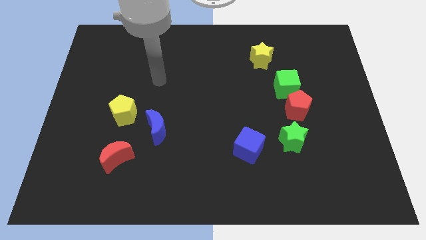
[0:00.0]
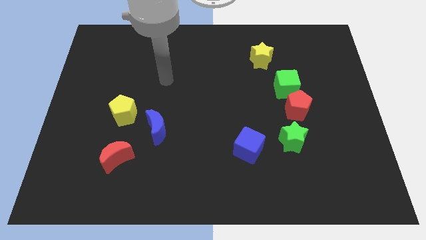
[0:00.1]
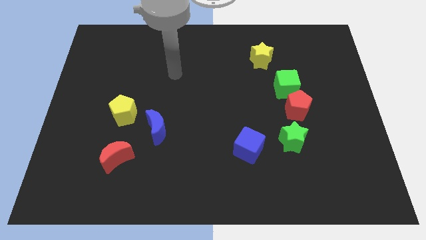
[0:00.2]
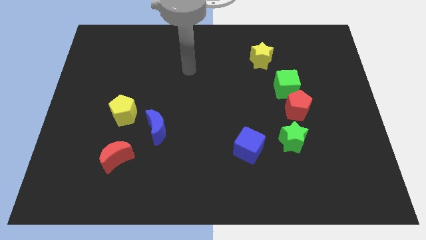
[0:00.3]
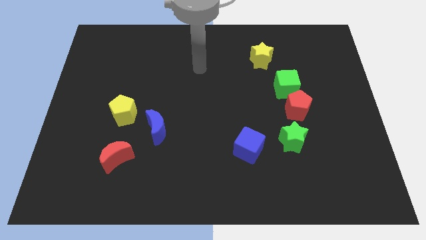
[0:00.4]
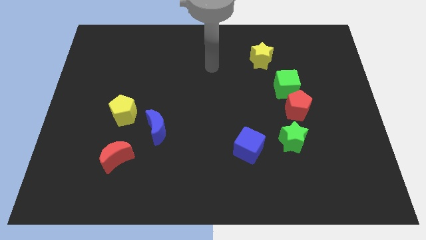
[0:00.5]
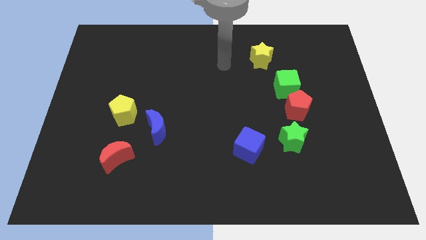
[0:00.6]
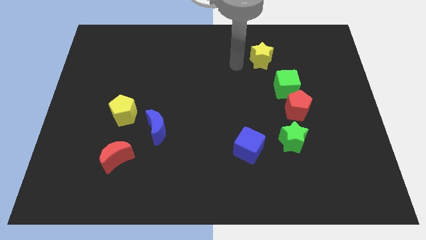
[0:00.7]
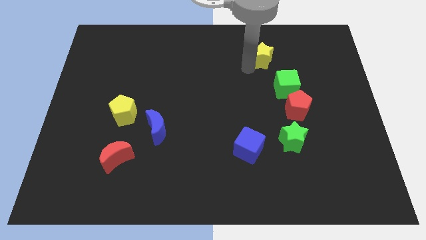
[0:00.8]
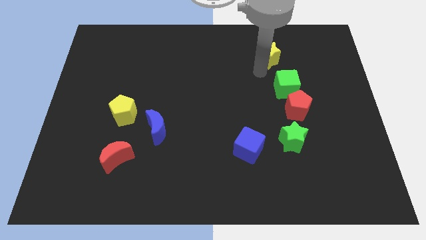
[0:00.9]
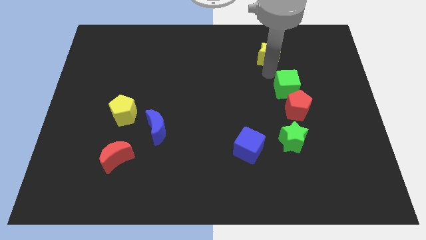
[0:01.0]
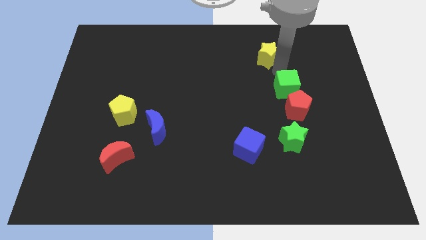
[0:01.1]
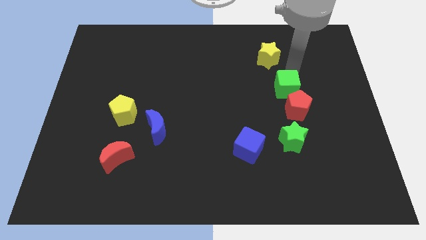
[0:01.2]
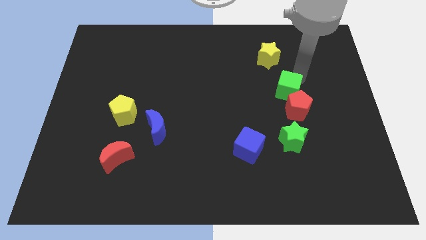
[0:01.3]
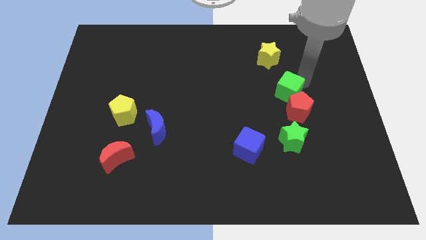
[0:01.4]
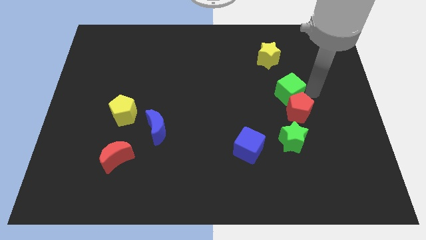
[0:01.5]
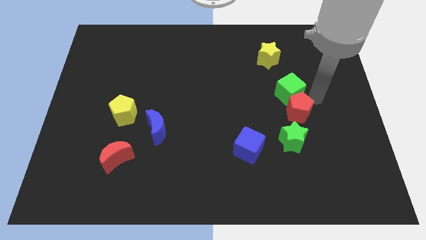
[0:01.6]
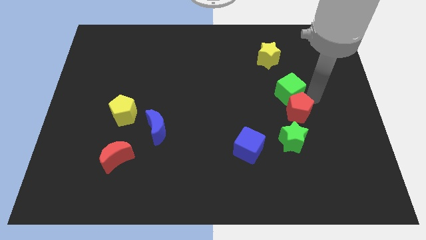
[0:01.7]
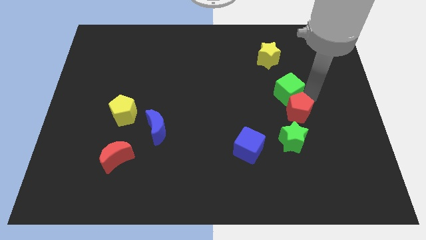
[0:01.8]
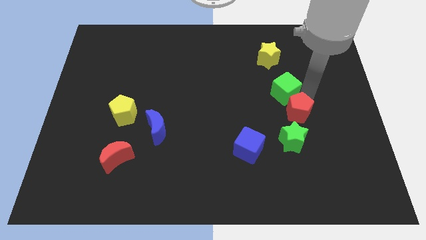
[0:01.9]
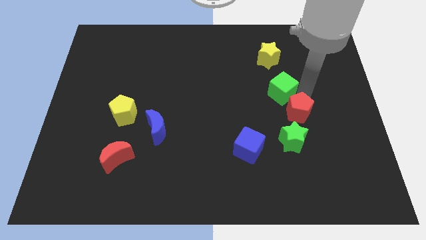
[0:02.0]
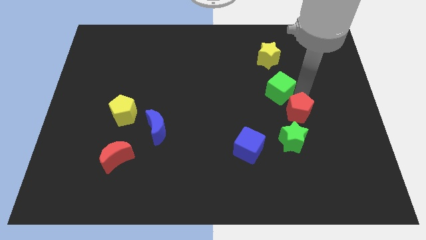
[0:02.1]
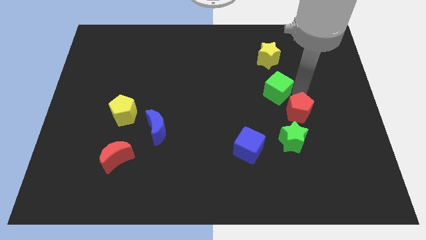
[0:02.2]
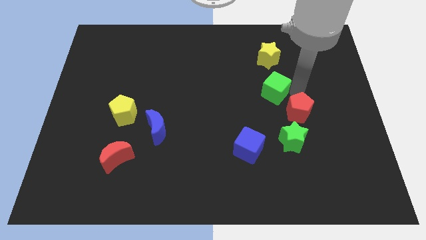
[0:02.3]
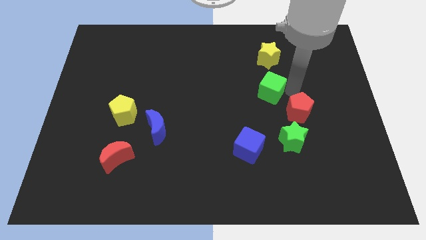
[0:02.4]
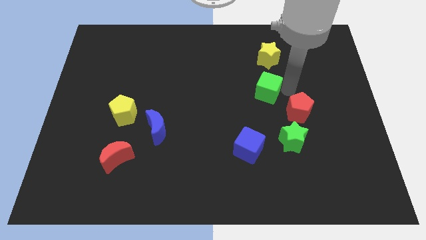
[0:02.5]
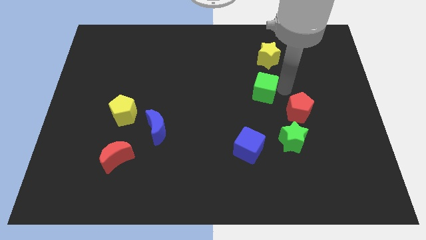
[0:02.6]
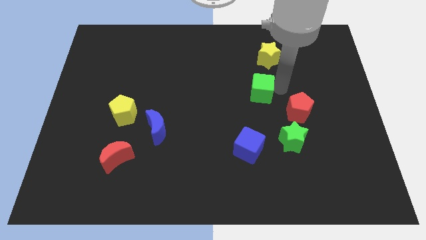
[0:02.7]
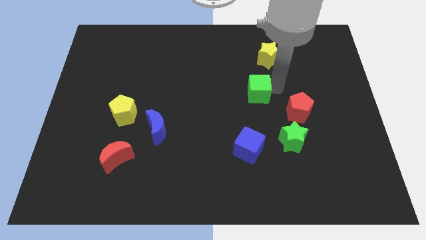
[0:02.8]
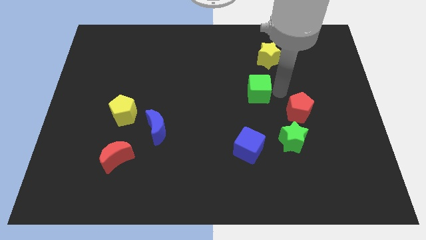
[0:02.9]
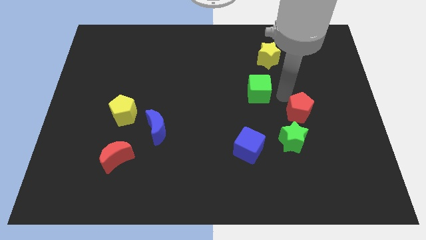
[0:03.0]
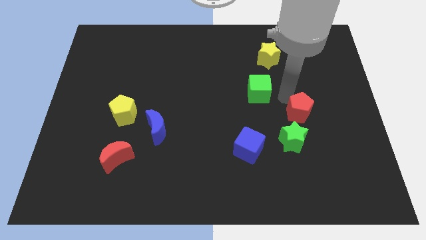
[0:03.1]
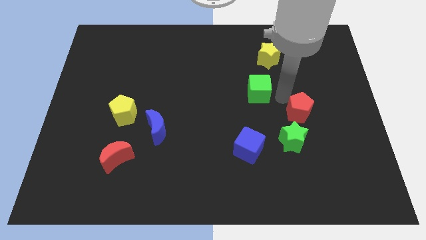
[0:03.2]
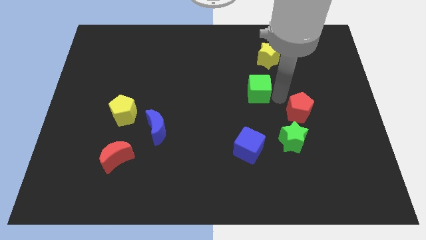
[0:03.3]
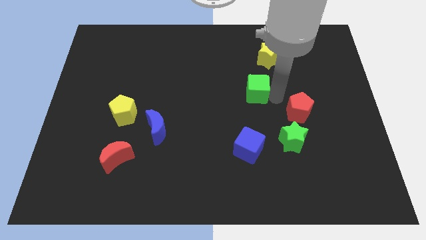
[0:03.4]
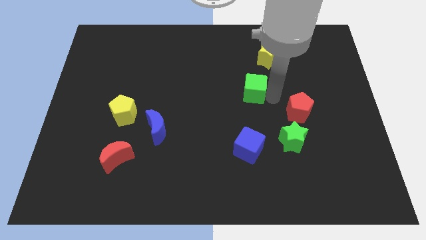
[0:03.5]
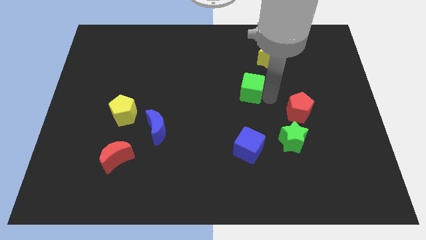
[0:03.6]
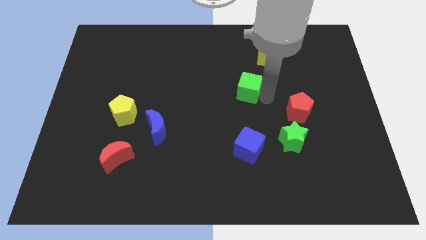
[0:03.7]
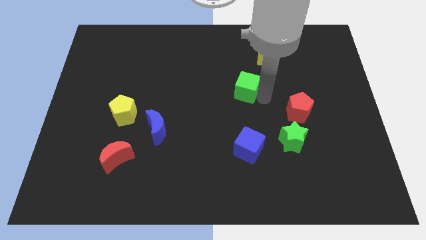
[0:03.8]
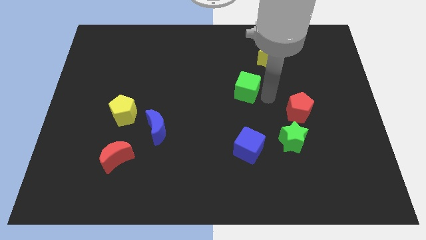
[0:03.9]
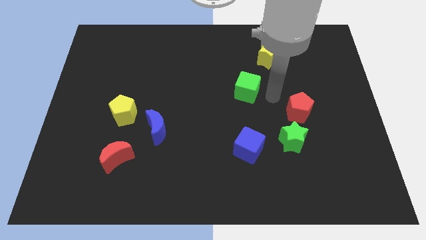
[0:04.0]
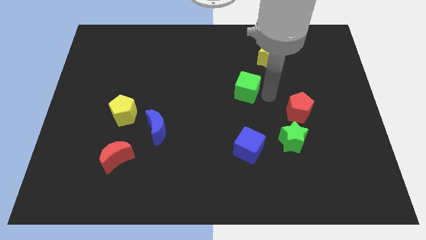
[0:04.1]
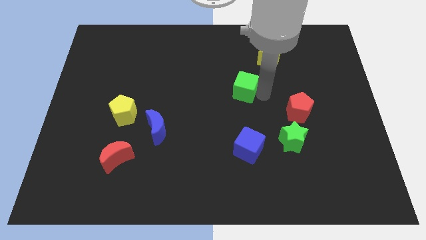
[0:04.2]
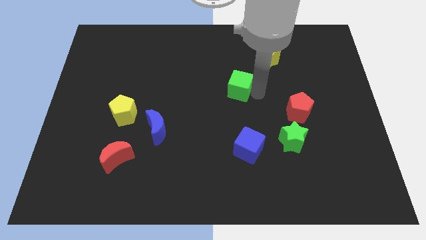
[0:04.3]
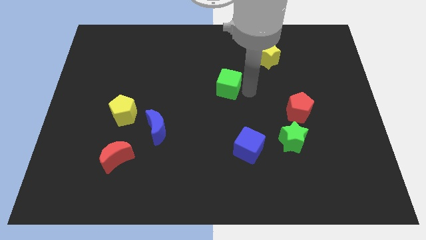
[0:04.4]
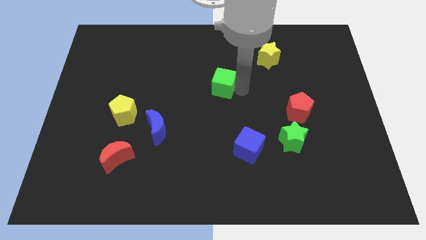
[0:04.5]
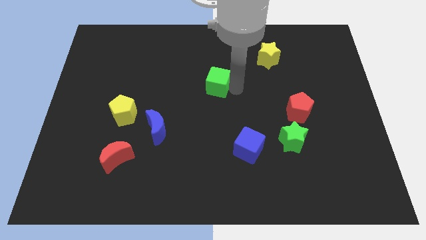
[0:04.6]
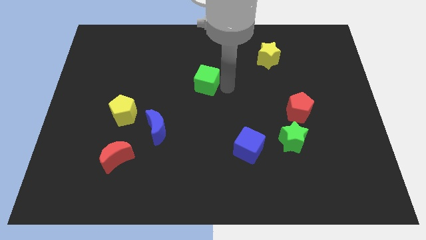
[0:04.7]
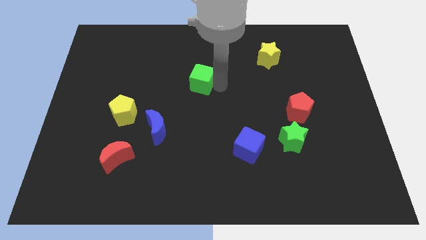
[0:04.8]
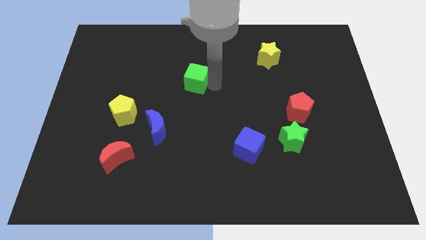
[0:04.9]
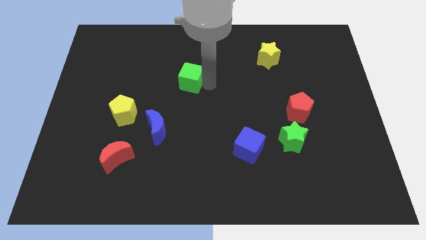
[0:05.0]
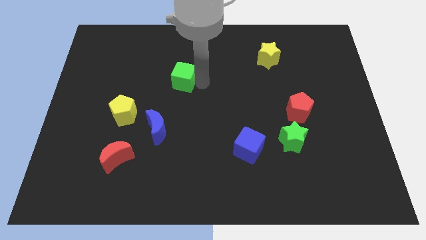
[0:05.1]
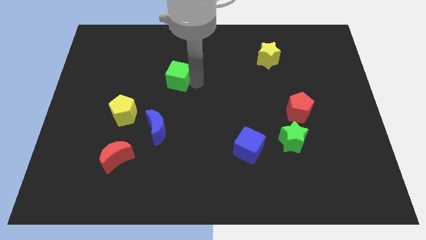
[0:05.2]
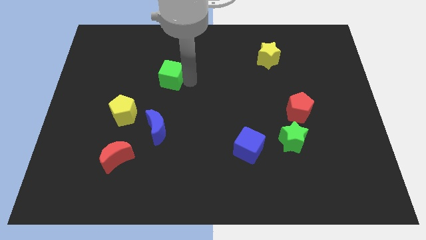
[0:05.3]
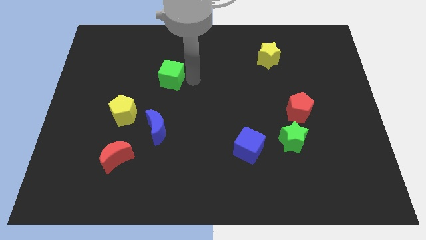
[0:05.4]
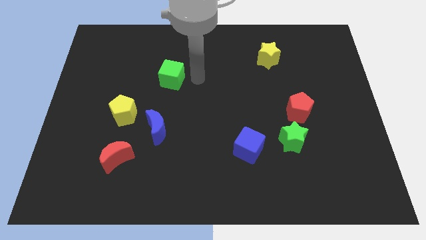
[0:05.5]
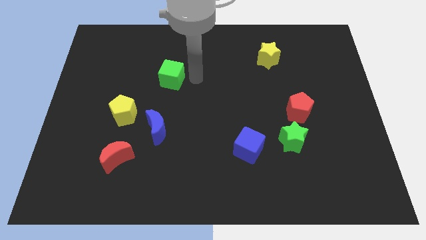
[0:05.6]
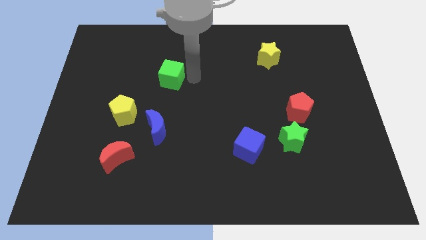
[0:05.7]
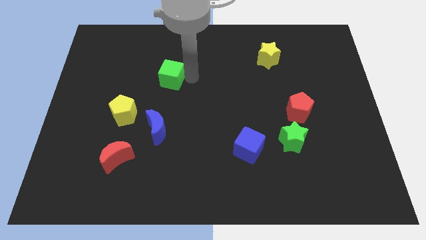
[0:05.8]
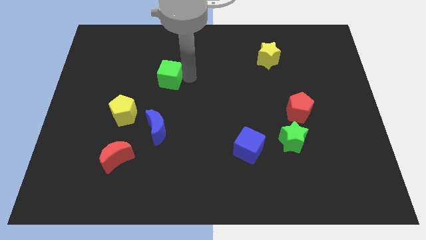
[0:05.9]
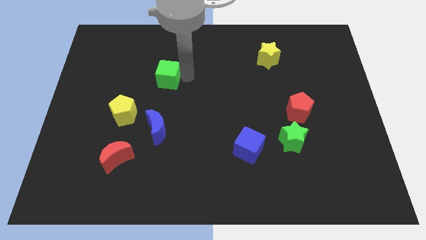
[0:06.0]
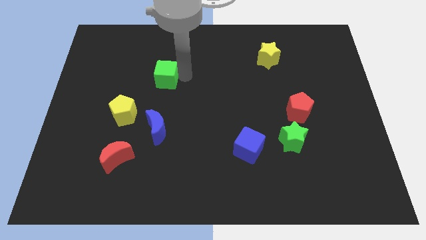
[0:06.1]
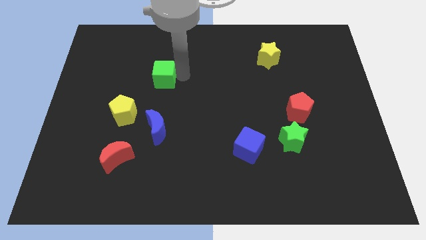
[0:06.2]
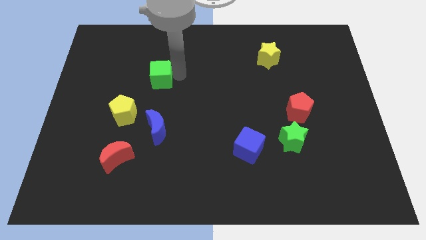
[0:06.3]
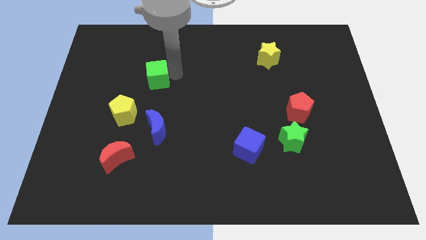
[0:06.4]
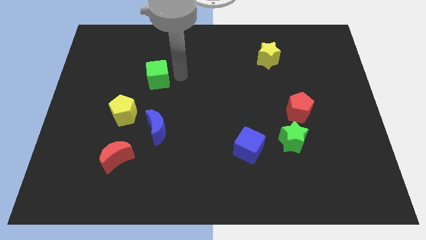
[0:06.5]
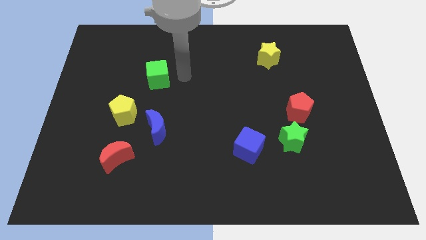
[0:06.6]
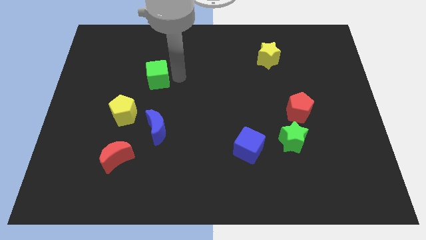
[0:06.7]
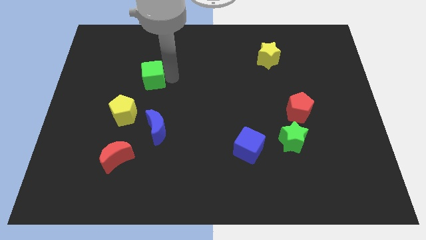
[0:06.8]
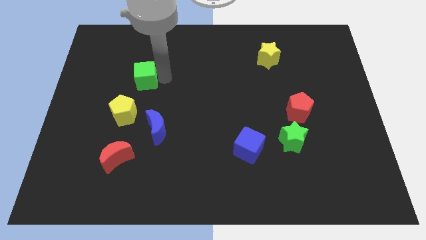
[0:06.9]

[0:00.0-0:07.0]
move the green cube above the yellow pentagon

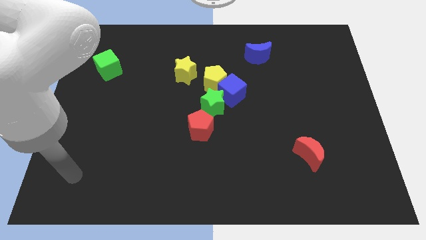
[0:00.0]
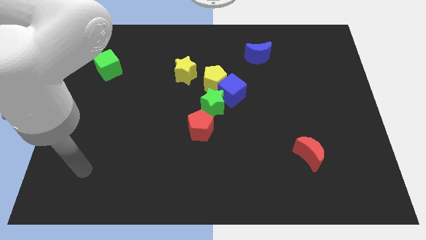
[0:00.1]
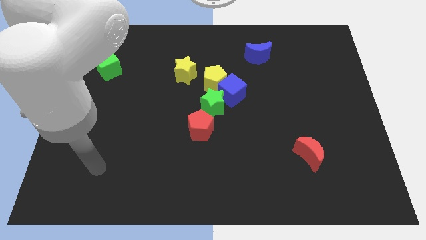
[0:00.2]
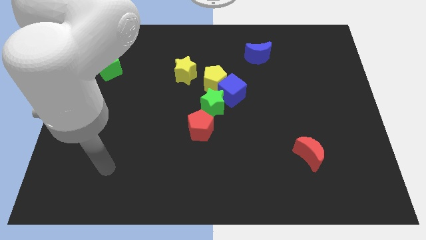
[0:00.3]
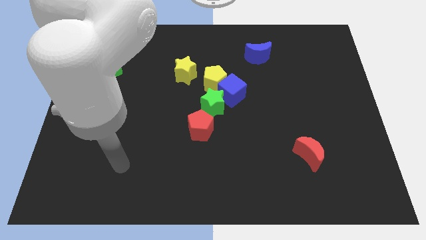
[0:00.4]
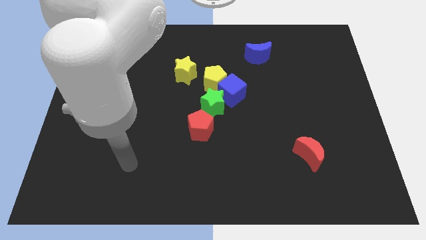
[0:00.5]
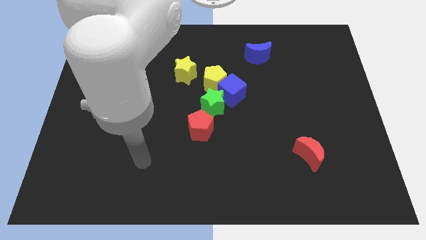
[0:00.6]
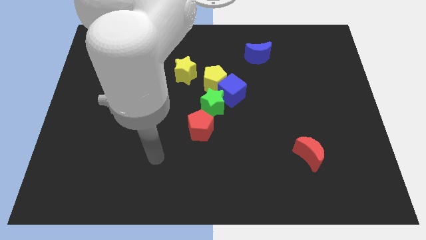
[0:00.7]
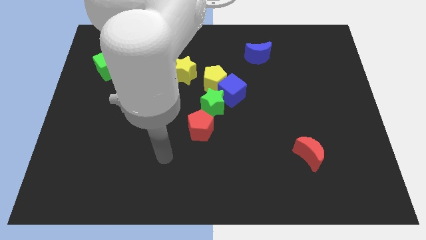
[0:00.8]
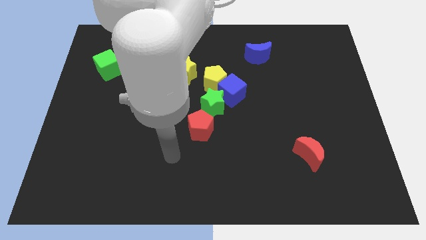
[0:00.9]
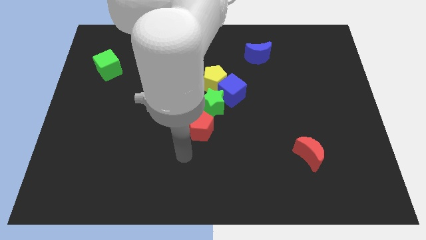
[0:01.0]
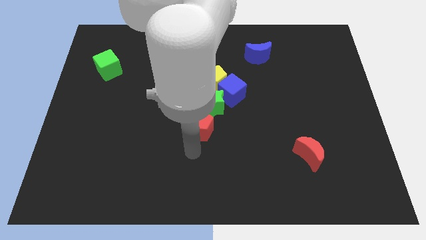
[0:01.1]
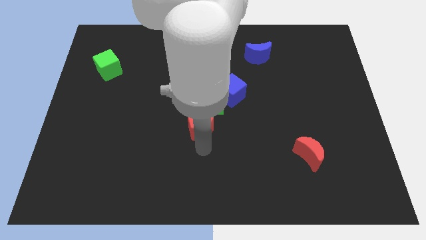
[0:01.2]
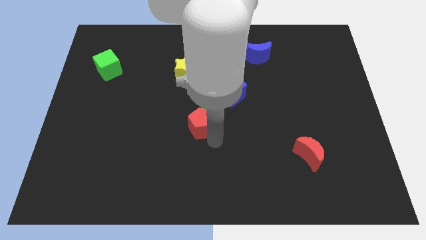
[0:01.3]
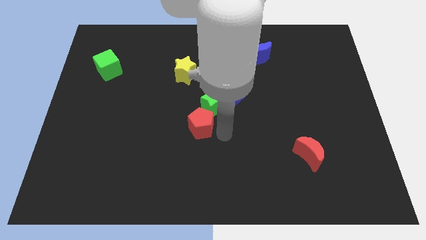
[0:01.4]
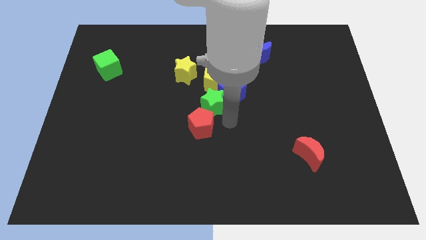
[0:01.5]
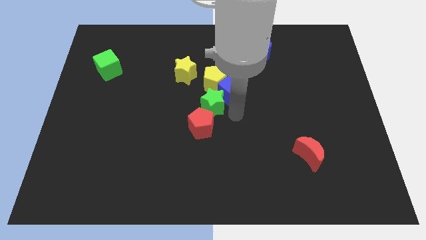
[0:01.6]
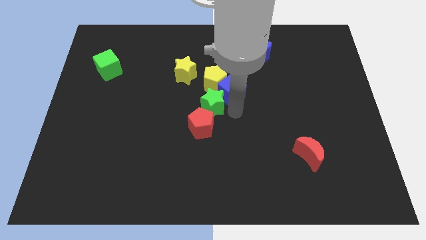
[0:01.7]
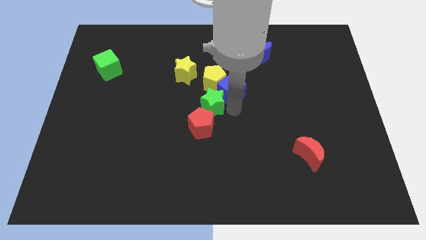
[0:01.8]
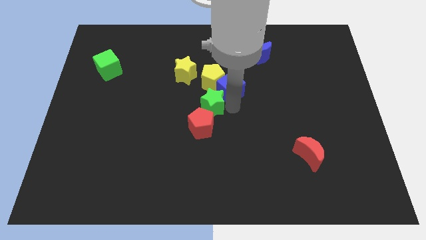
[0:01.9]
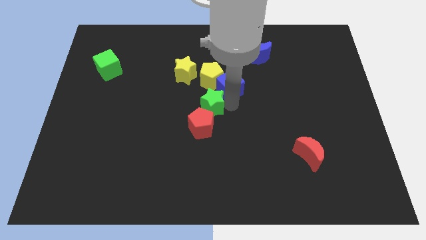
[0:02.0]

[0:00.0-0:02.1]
move the blue cube just right of the yellow star
